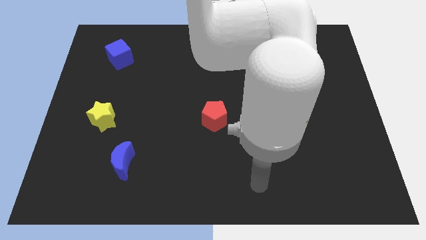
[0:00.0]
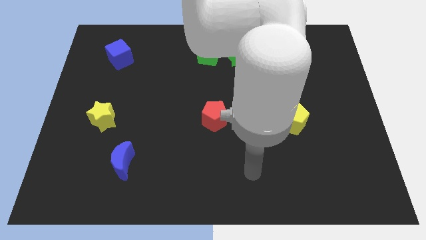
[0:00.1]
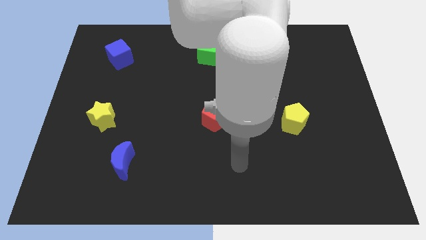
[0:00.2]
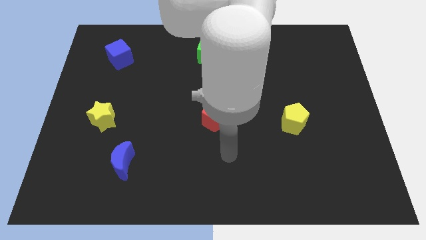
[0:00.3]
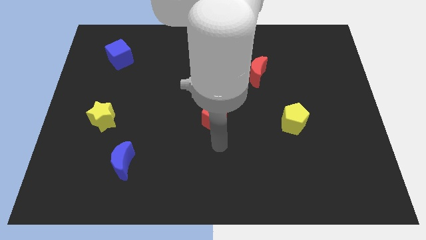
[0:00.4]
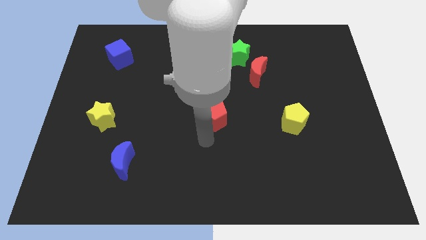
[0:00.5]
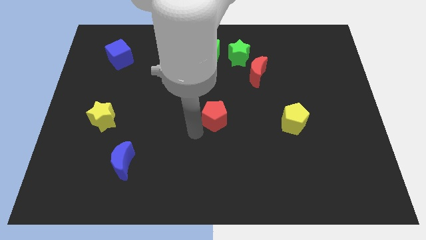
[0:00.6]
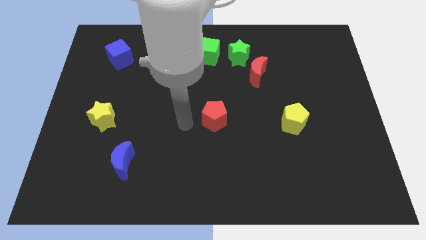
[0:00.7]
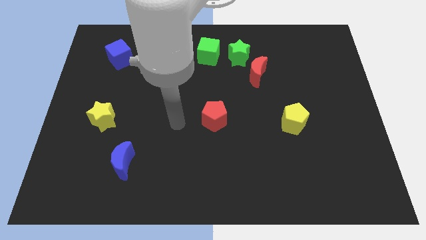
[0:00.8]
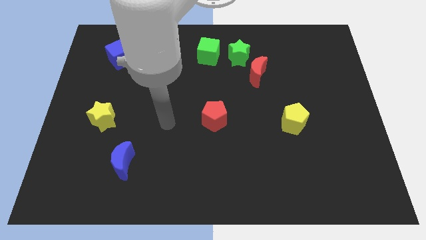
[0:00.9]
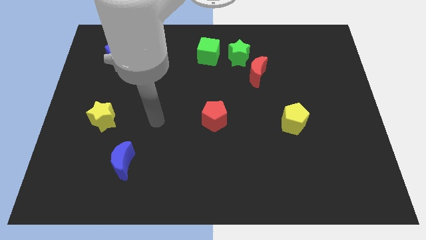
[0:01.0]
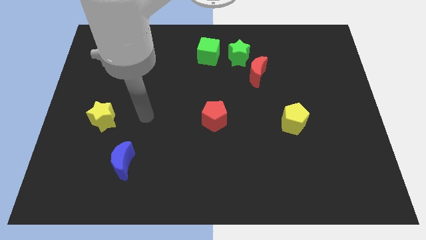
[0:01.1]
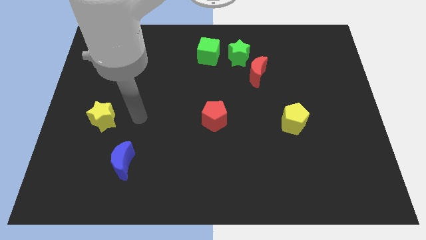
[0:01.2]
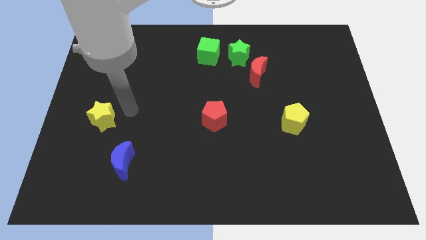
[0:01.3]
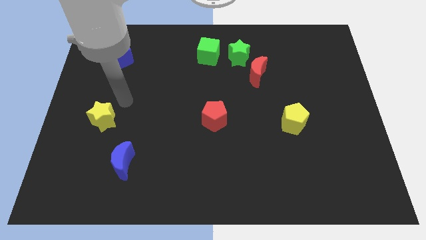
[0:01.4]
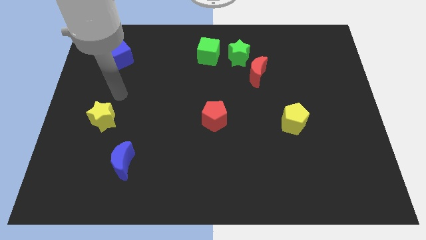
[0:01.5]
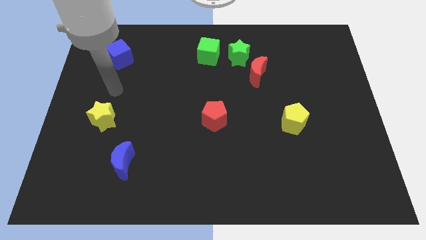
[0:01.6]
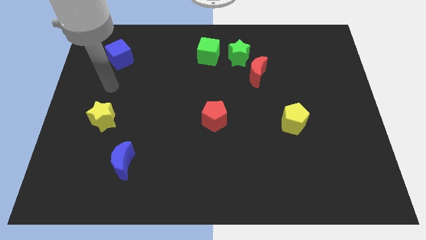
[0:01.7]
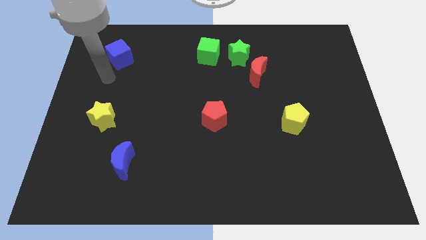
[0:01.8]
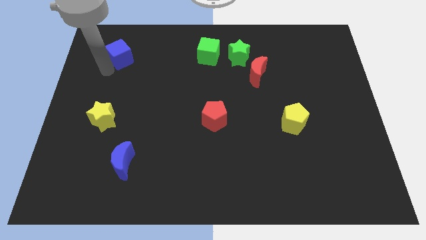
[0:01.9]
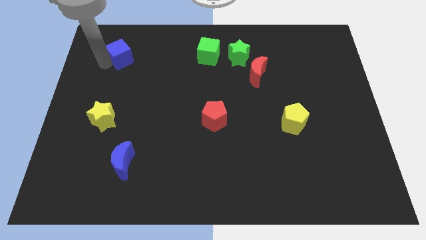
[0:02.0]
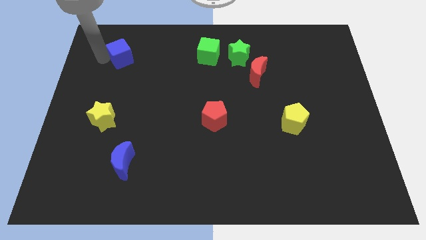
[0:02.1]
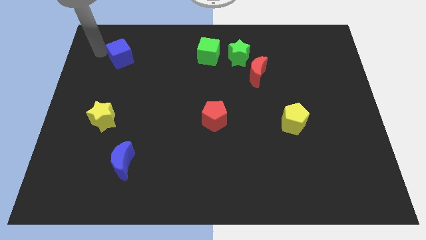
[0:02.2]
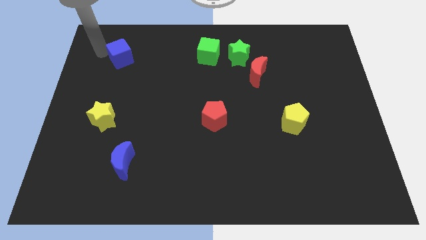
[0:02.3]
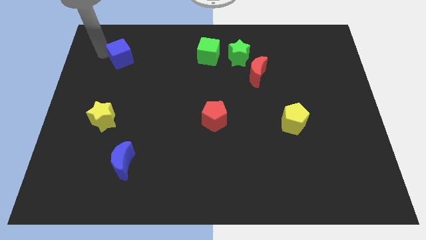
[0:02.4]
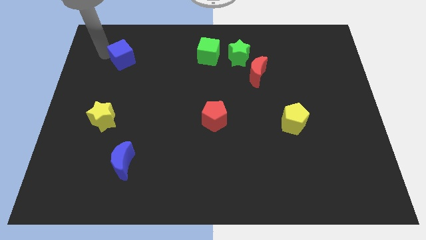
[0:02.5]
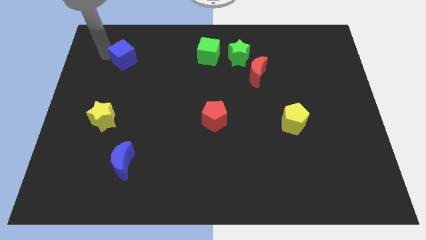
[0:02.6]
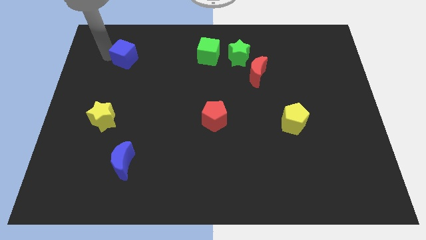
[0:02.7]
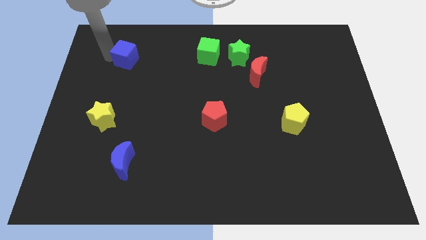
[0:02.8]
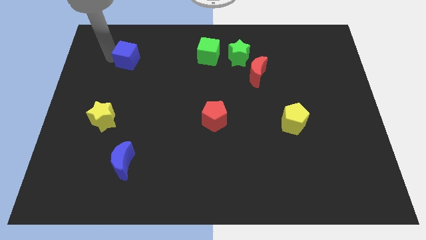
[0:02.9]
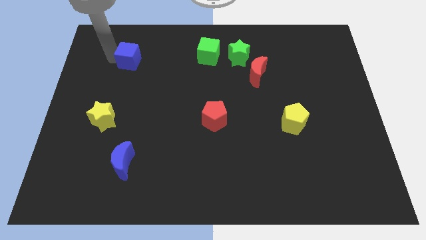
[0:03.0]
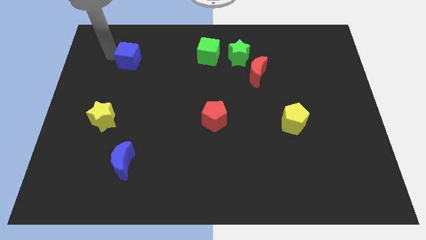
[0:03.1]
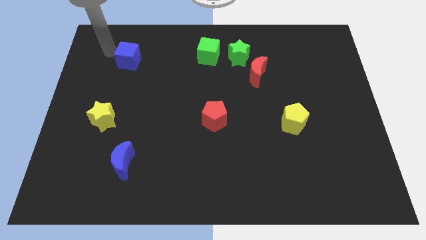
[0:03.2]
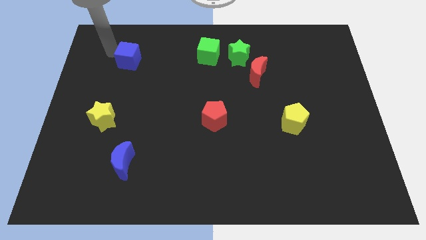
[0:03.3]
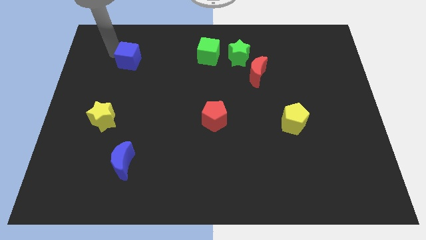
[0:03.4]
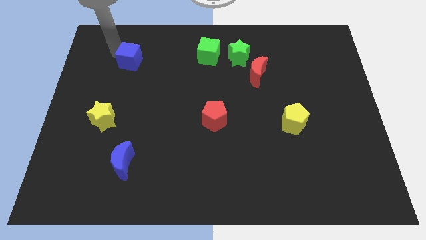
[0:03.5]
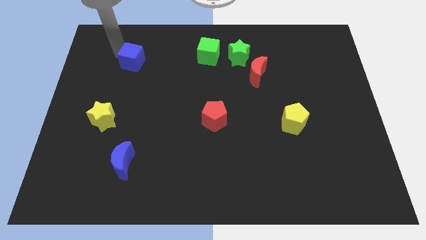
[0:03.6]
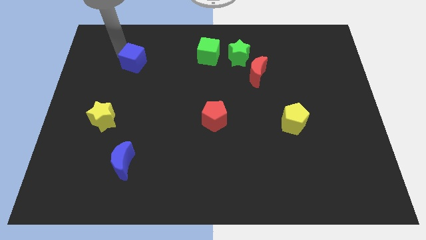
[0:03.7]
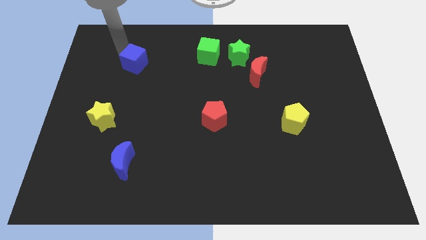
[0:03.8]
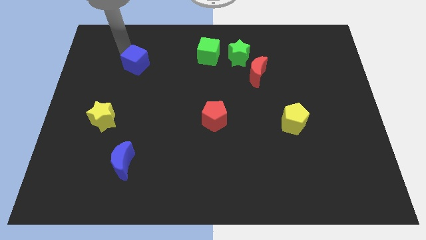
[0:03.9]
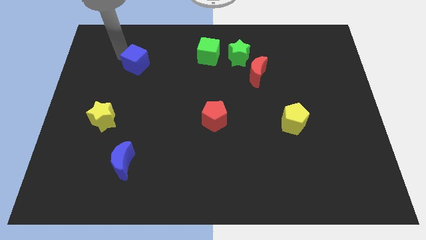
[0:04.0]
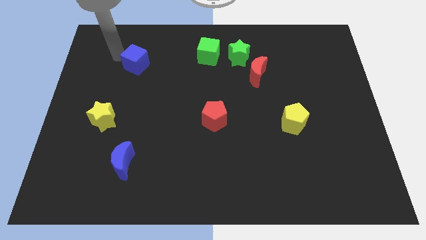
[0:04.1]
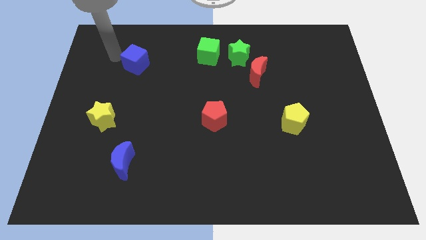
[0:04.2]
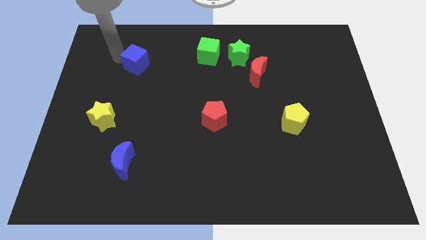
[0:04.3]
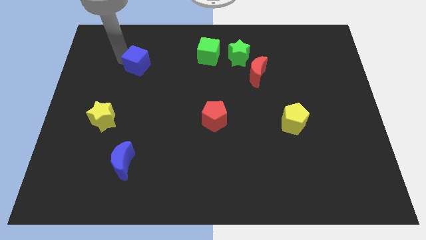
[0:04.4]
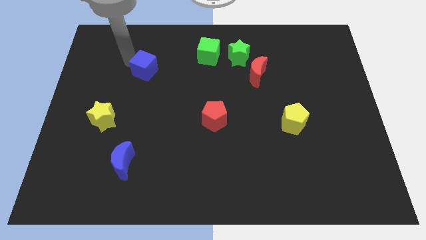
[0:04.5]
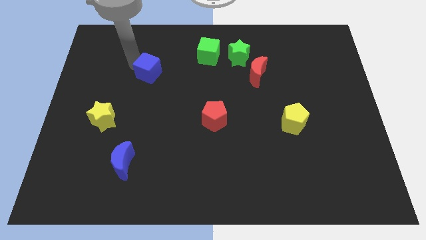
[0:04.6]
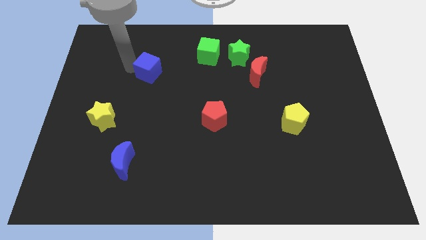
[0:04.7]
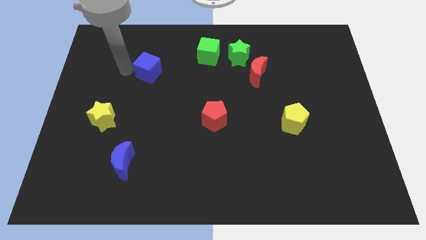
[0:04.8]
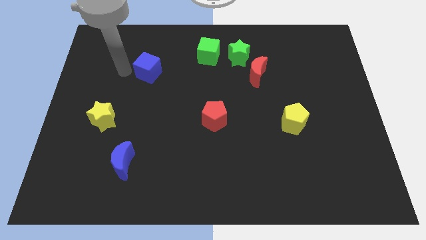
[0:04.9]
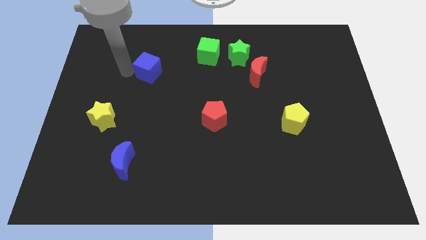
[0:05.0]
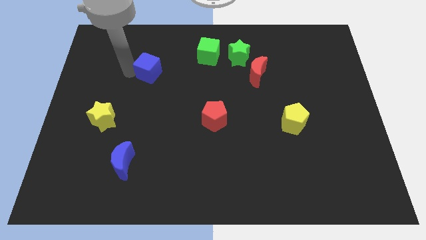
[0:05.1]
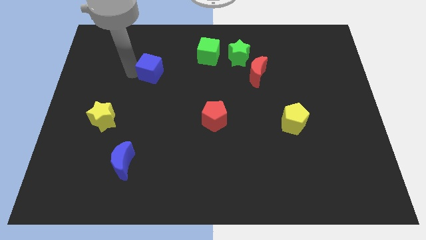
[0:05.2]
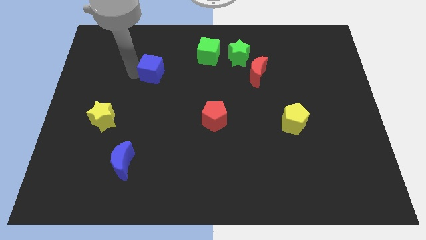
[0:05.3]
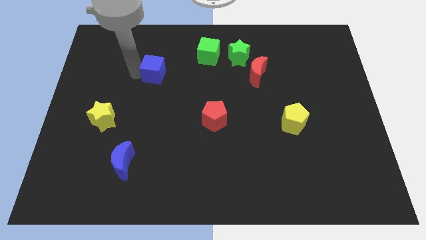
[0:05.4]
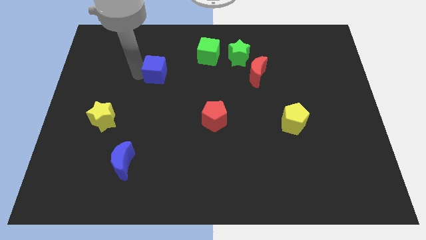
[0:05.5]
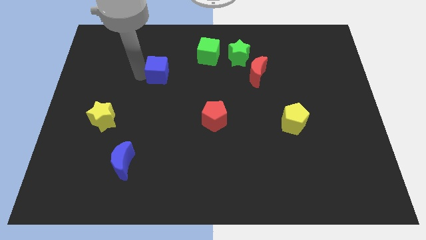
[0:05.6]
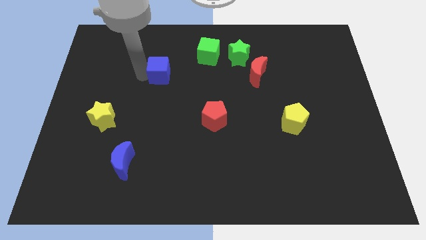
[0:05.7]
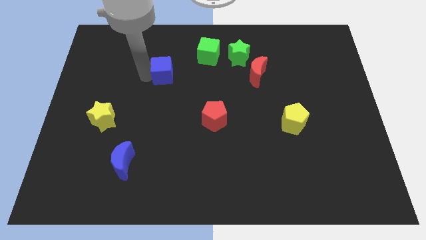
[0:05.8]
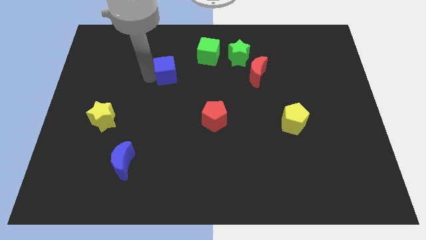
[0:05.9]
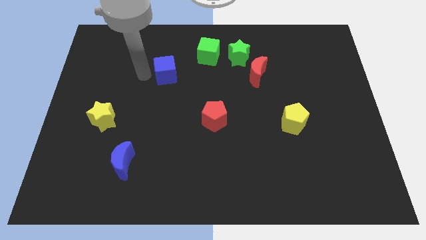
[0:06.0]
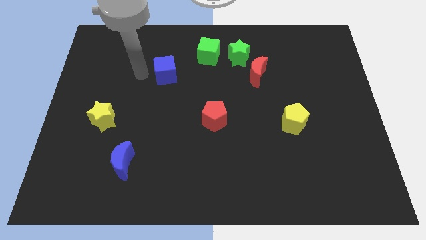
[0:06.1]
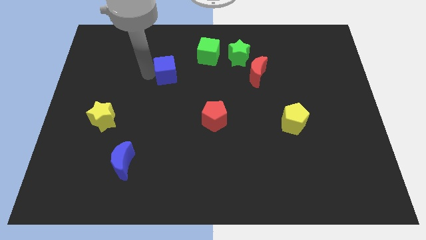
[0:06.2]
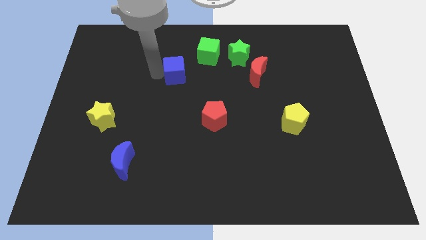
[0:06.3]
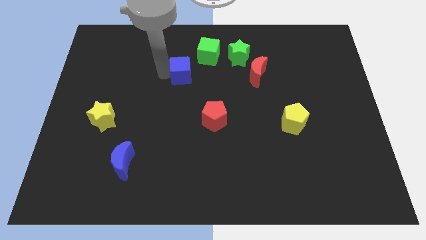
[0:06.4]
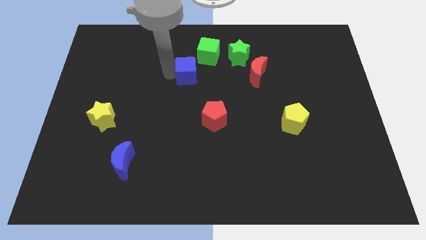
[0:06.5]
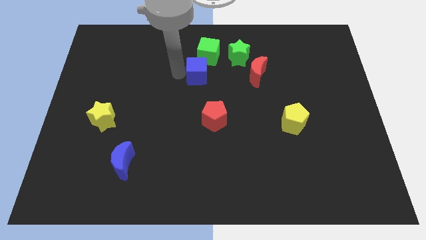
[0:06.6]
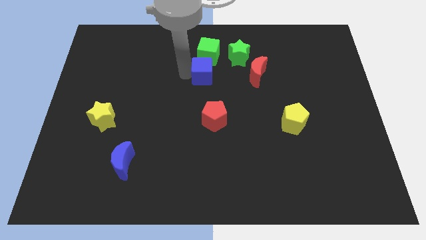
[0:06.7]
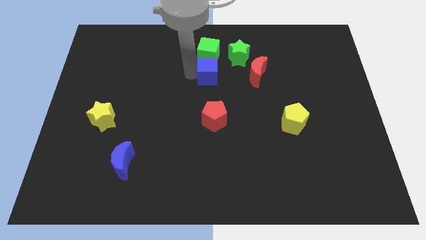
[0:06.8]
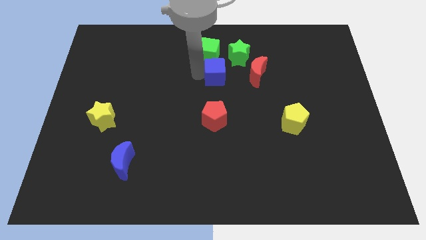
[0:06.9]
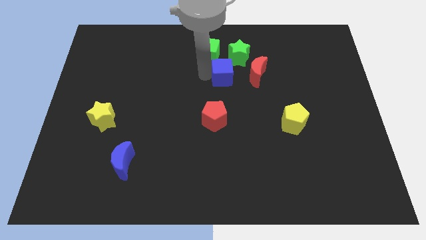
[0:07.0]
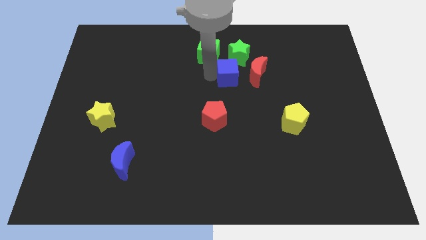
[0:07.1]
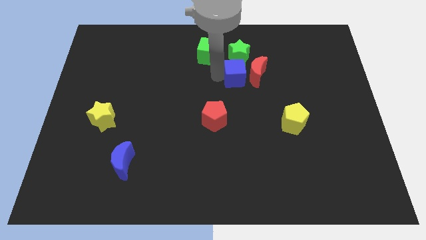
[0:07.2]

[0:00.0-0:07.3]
push the blue cube towards the red moon
